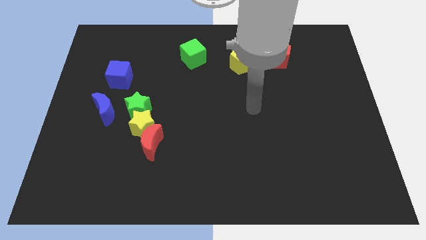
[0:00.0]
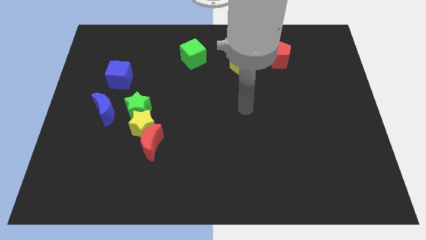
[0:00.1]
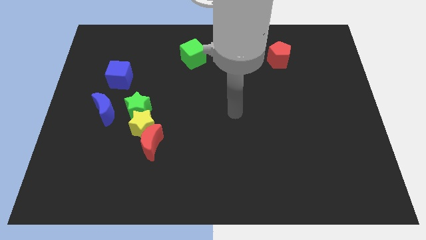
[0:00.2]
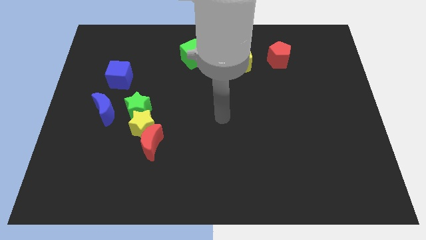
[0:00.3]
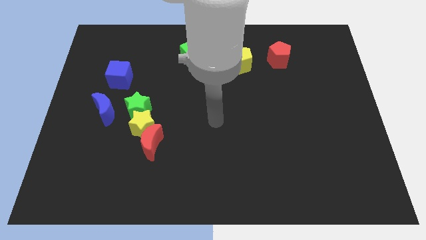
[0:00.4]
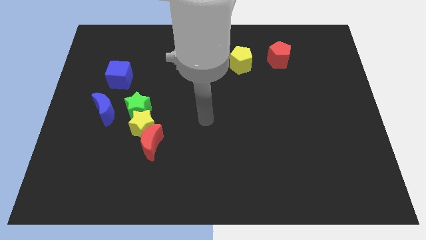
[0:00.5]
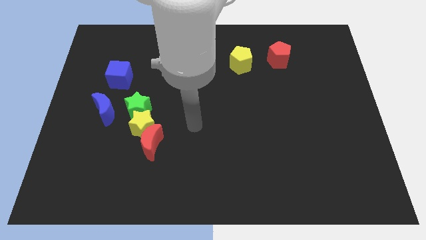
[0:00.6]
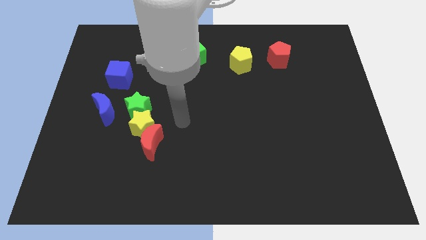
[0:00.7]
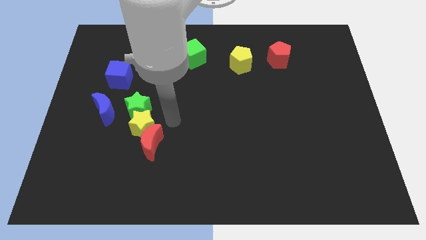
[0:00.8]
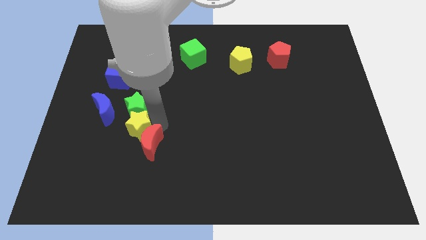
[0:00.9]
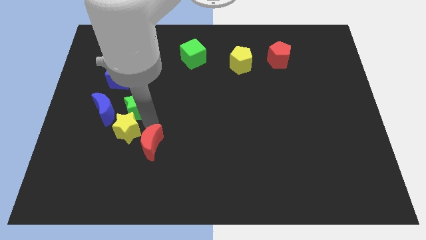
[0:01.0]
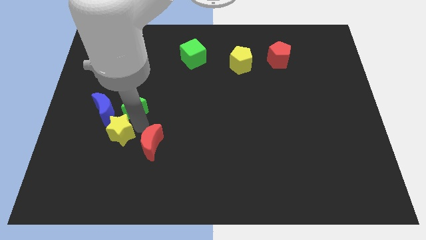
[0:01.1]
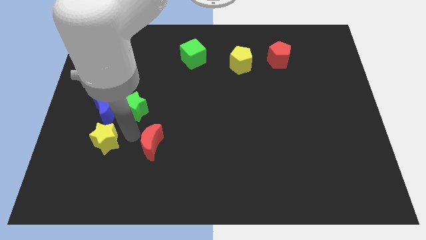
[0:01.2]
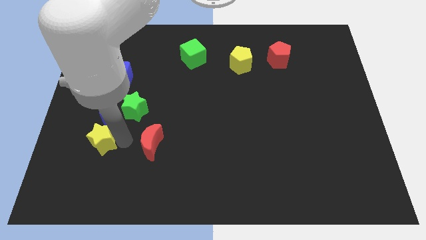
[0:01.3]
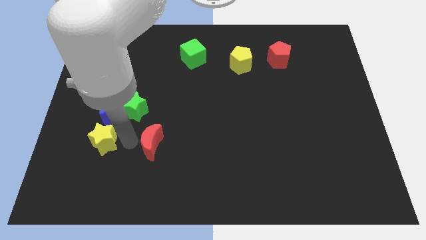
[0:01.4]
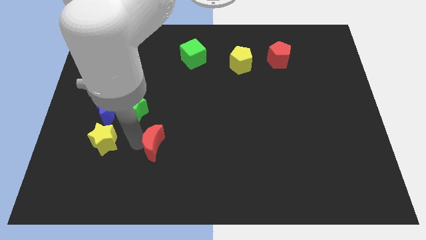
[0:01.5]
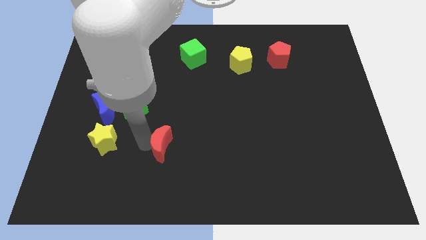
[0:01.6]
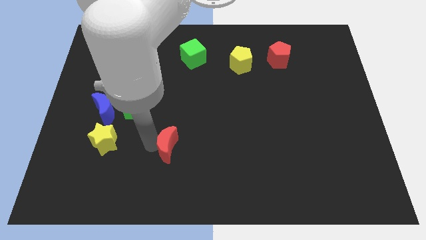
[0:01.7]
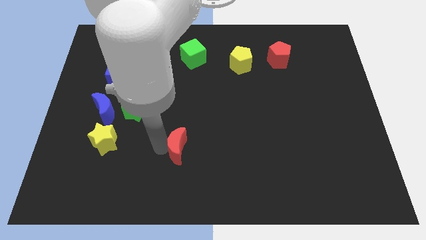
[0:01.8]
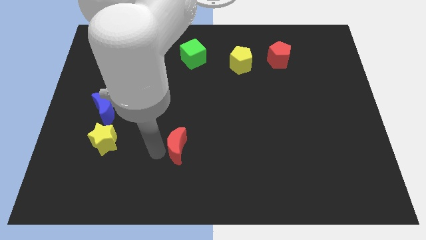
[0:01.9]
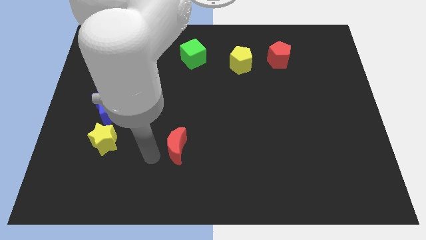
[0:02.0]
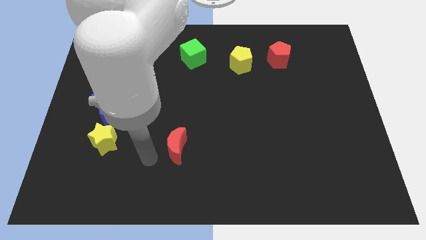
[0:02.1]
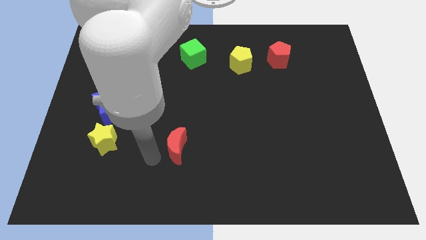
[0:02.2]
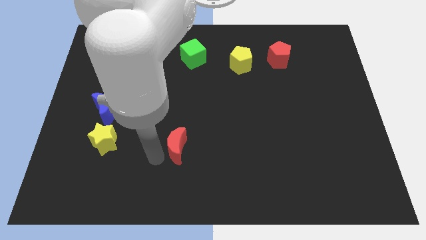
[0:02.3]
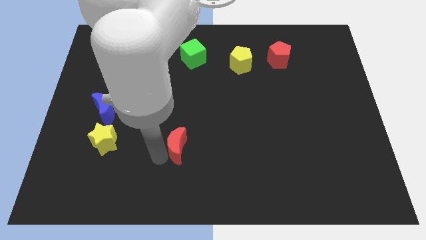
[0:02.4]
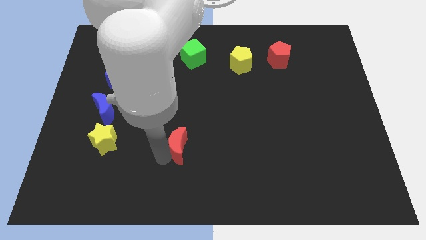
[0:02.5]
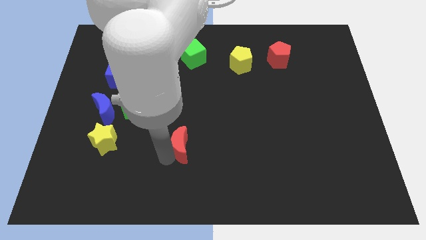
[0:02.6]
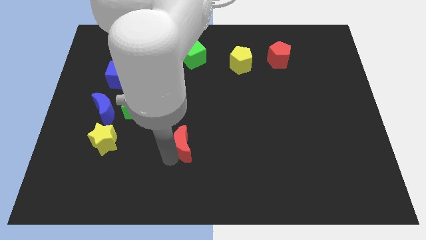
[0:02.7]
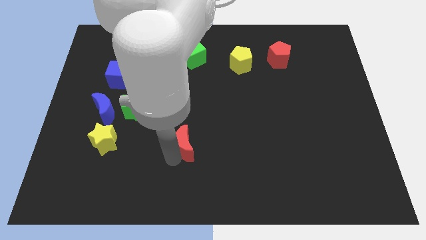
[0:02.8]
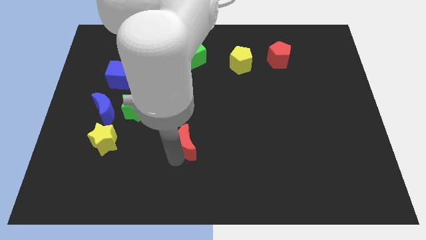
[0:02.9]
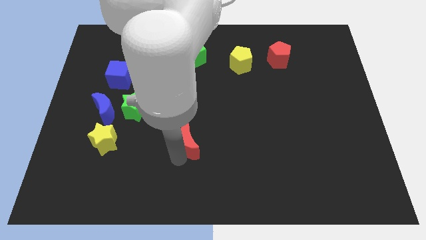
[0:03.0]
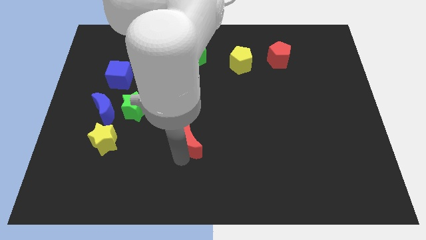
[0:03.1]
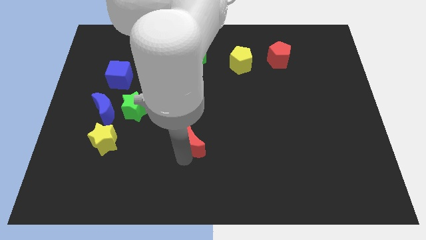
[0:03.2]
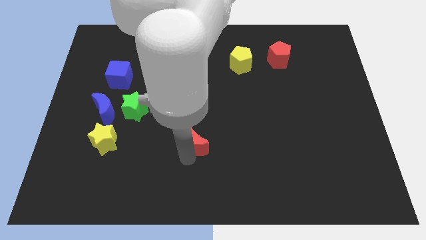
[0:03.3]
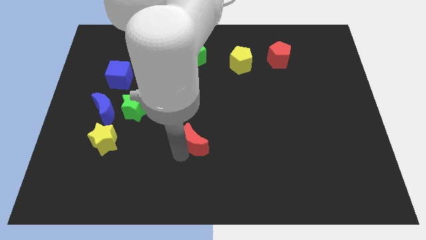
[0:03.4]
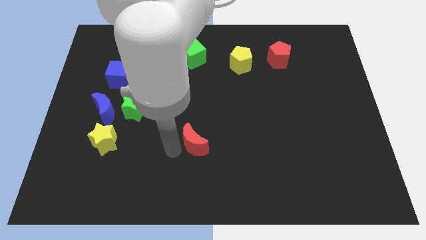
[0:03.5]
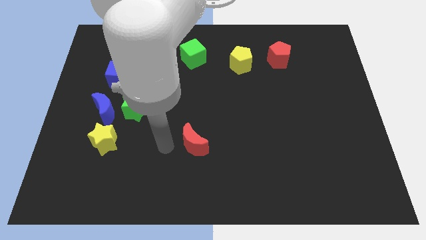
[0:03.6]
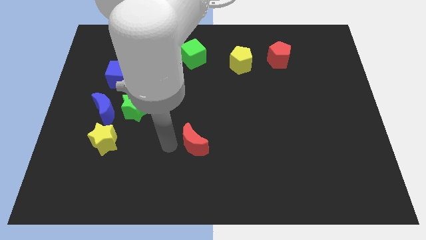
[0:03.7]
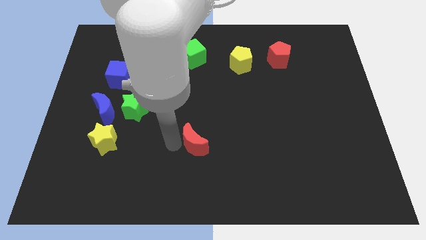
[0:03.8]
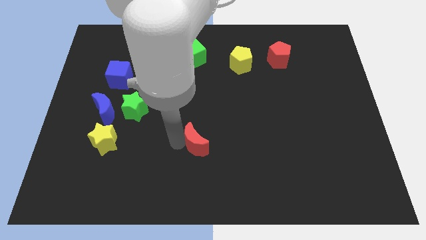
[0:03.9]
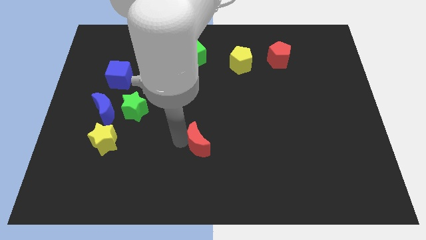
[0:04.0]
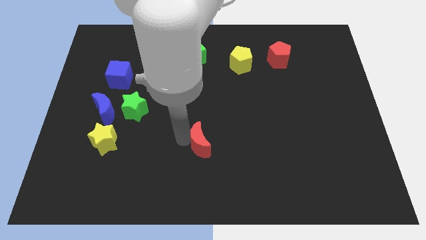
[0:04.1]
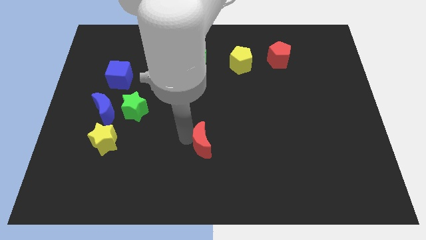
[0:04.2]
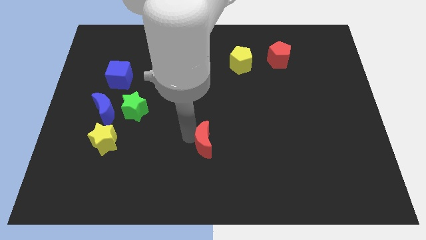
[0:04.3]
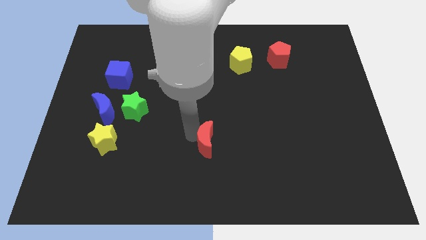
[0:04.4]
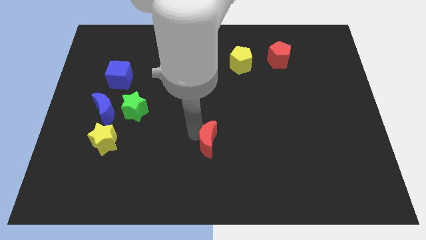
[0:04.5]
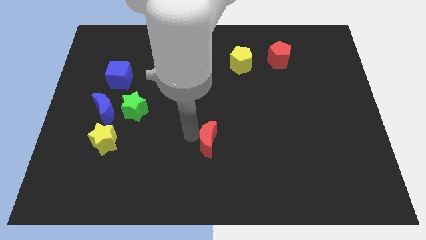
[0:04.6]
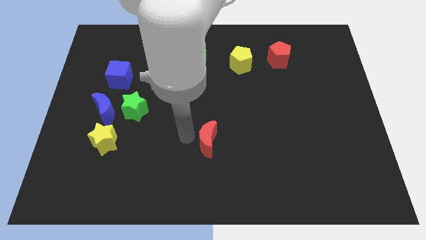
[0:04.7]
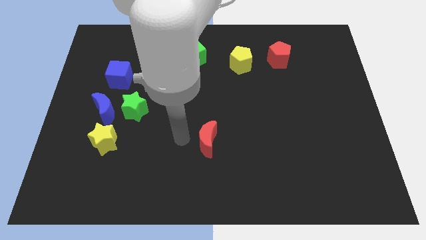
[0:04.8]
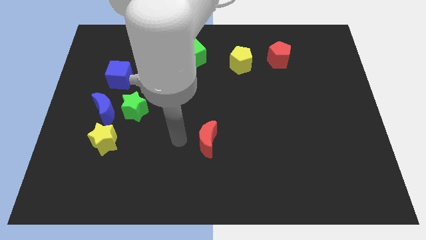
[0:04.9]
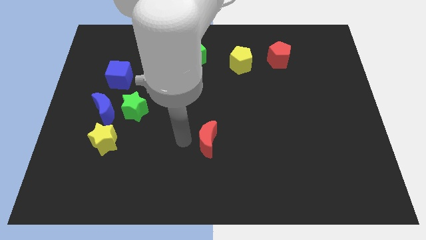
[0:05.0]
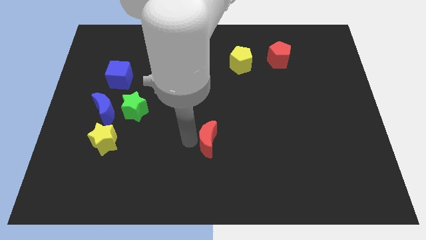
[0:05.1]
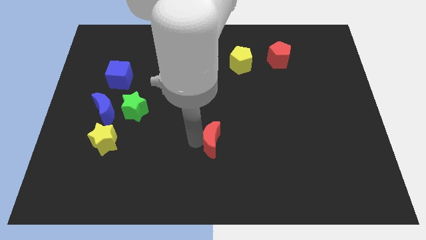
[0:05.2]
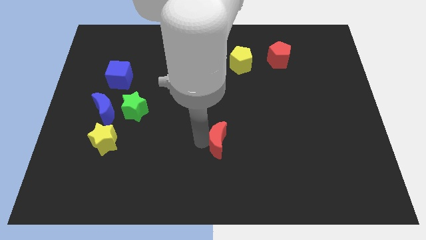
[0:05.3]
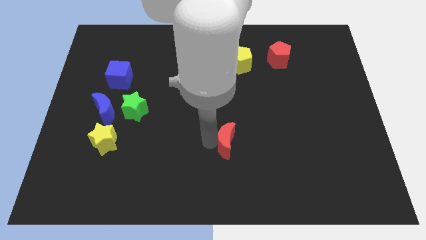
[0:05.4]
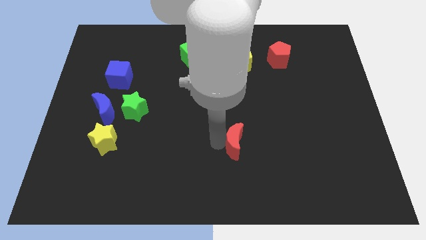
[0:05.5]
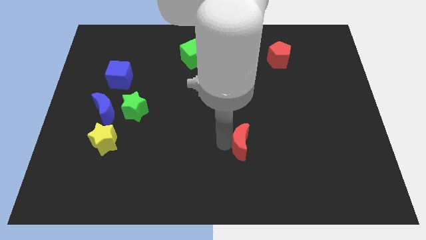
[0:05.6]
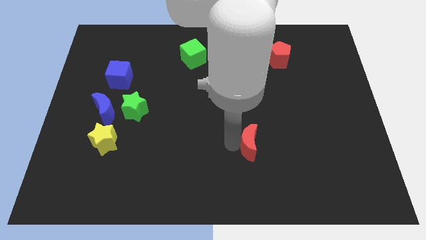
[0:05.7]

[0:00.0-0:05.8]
slide the red moon right

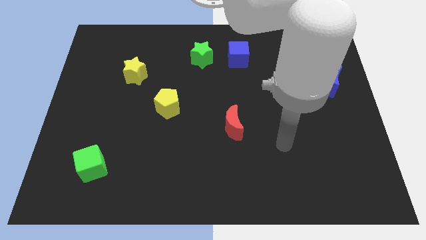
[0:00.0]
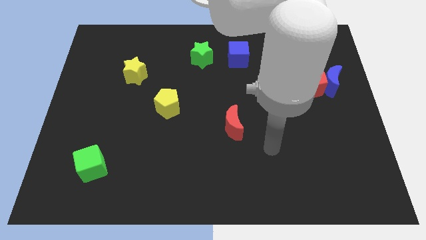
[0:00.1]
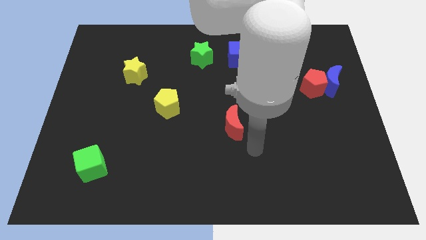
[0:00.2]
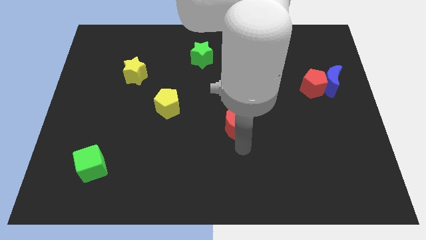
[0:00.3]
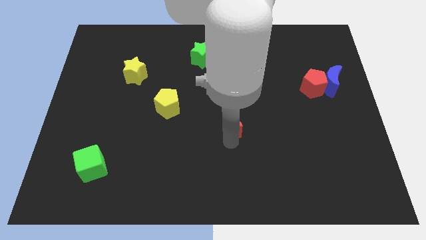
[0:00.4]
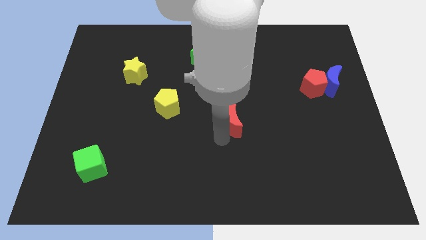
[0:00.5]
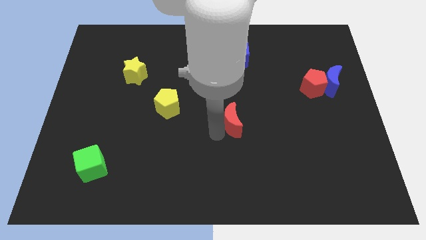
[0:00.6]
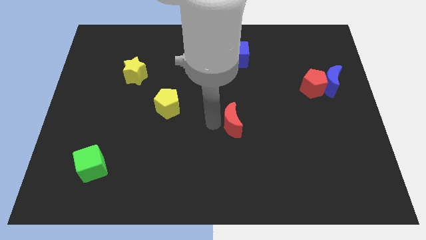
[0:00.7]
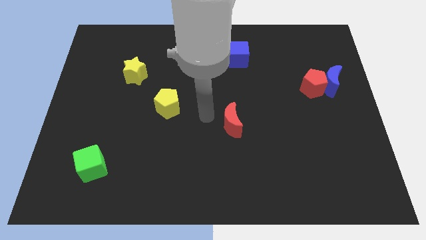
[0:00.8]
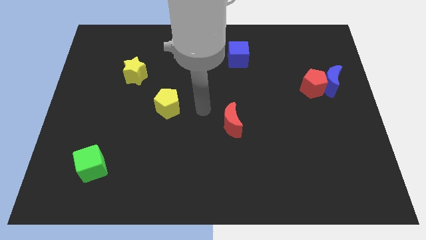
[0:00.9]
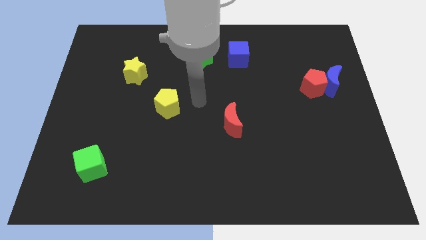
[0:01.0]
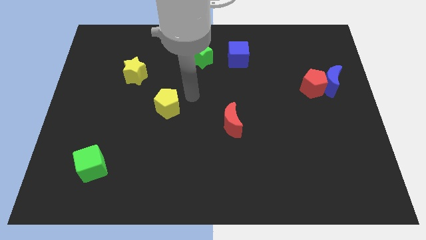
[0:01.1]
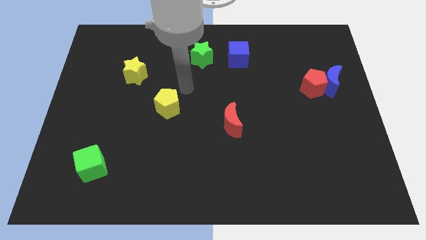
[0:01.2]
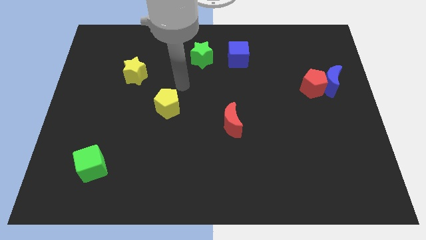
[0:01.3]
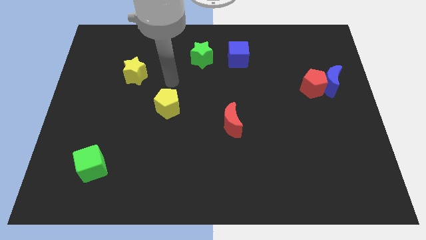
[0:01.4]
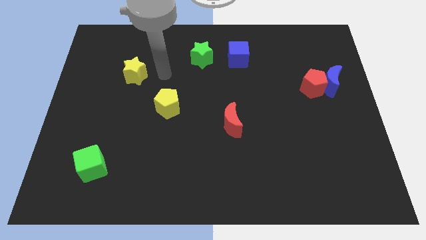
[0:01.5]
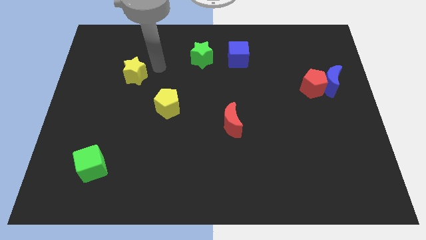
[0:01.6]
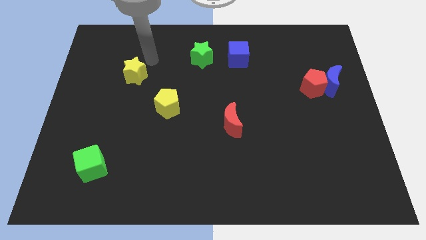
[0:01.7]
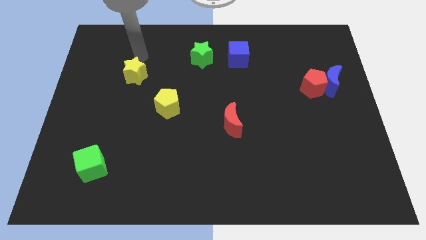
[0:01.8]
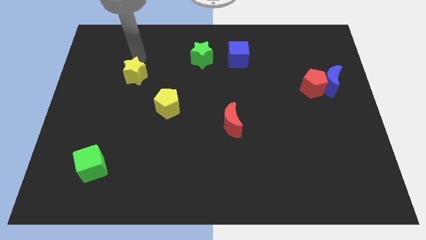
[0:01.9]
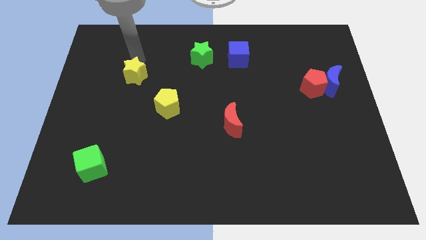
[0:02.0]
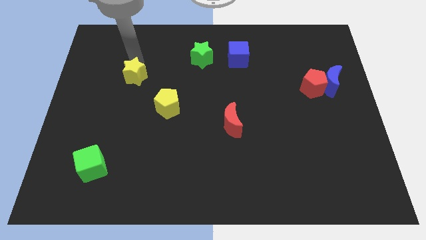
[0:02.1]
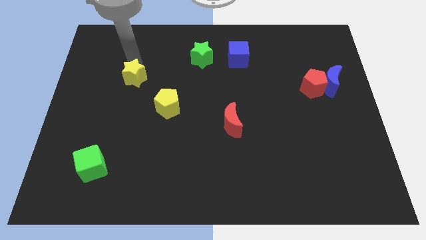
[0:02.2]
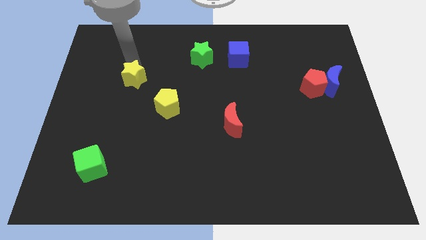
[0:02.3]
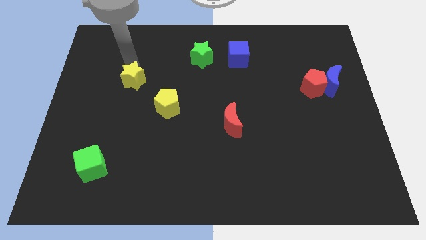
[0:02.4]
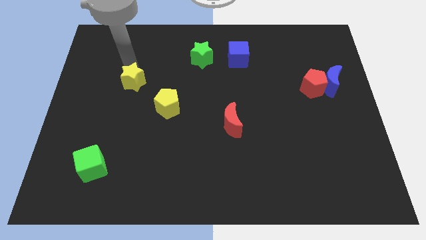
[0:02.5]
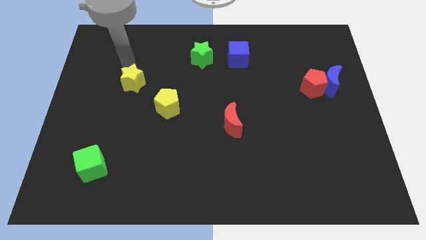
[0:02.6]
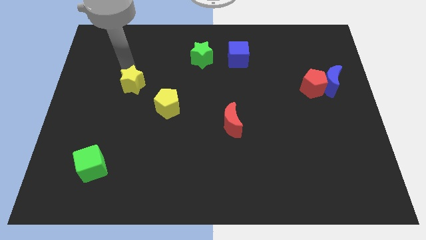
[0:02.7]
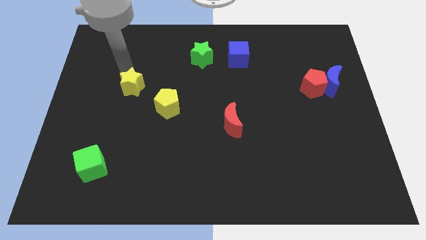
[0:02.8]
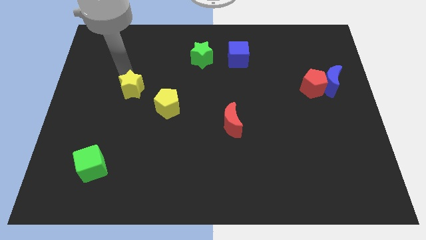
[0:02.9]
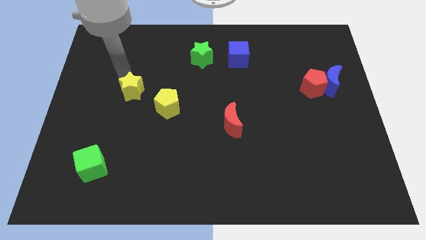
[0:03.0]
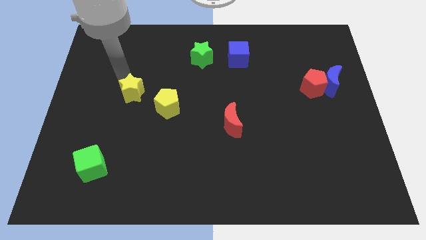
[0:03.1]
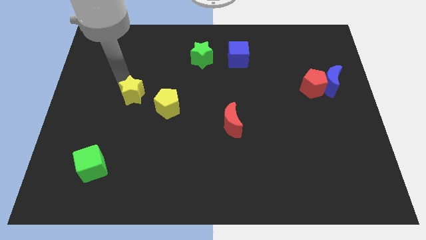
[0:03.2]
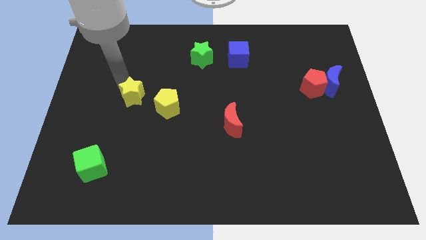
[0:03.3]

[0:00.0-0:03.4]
slide the yellow star a little downwards
